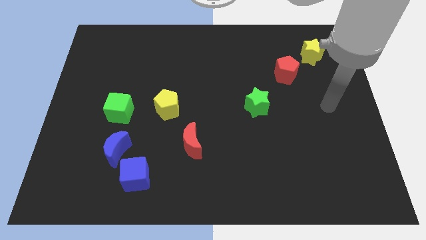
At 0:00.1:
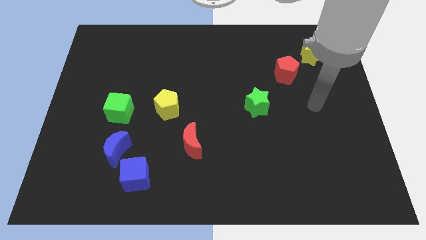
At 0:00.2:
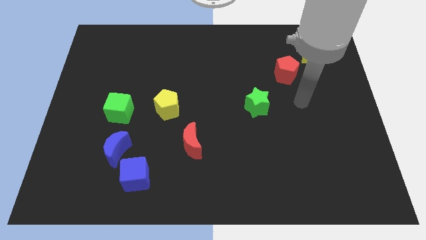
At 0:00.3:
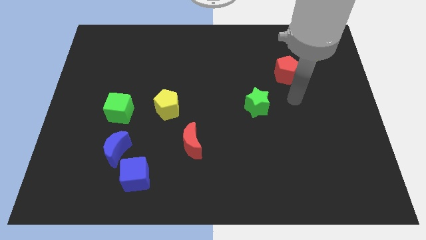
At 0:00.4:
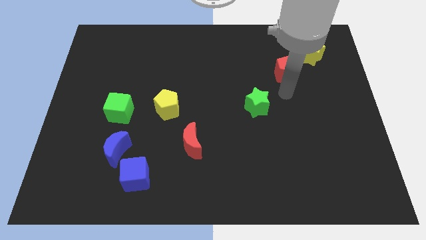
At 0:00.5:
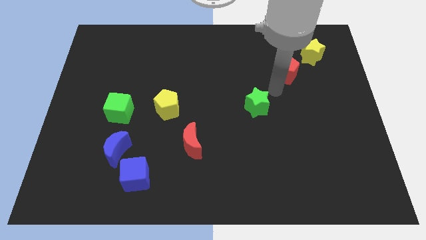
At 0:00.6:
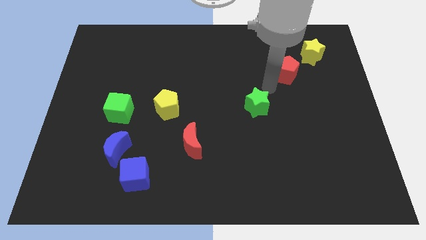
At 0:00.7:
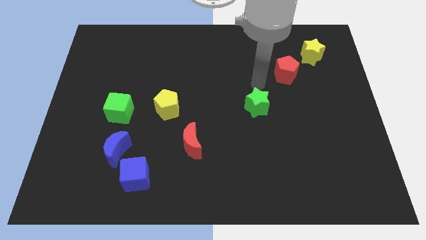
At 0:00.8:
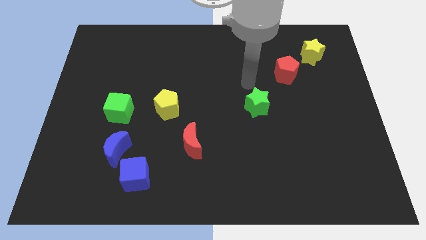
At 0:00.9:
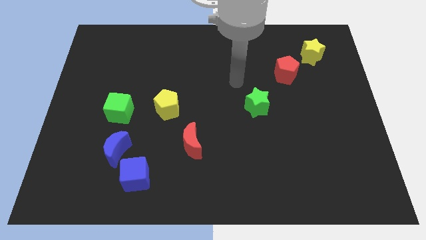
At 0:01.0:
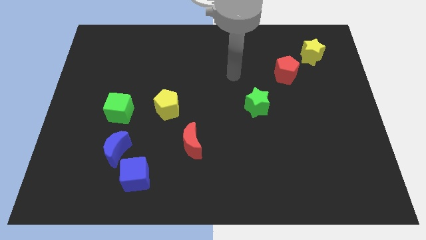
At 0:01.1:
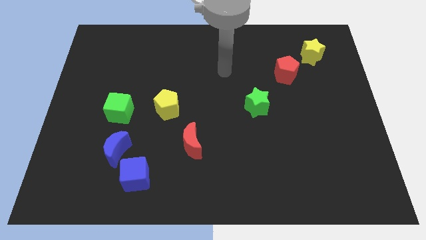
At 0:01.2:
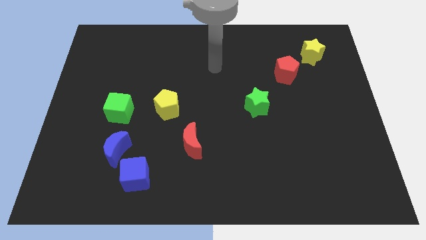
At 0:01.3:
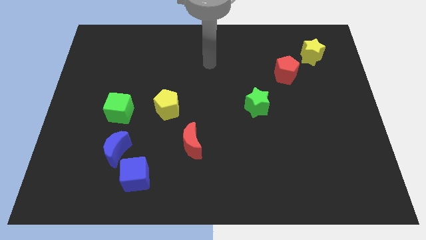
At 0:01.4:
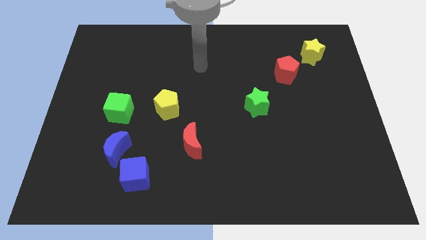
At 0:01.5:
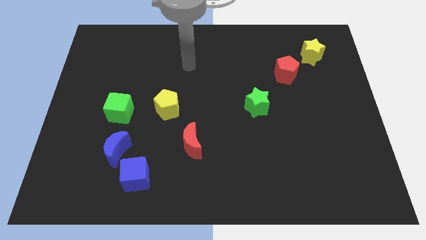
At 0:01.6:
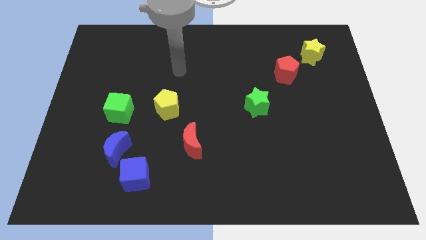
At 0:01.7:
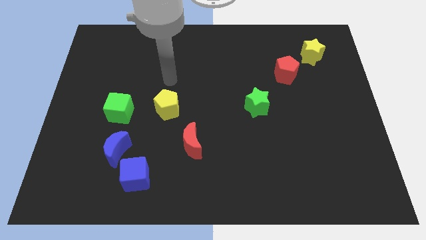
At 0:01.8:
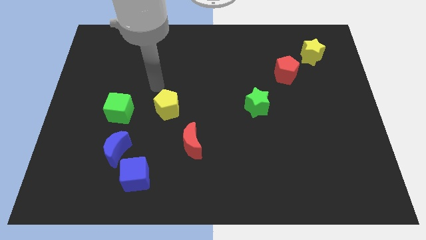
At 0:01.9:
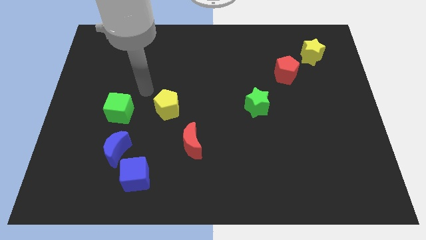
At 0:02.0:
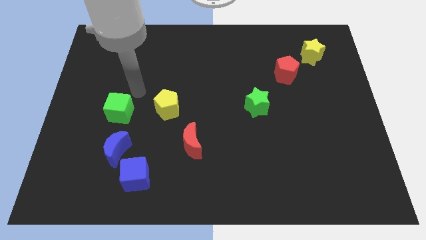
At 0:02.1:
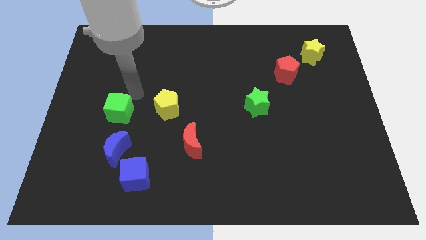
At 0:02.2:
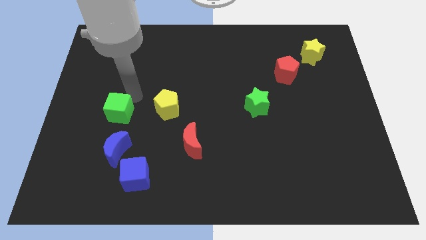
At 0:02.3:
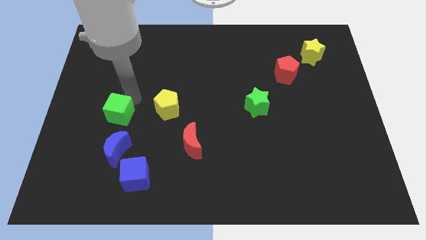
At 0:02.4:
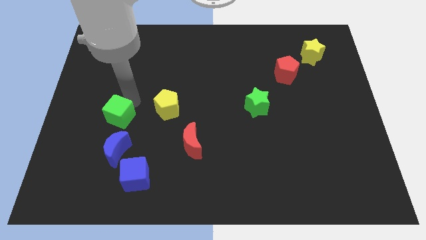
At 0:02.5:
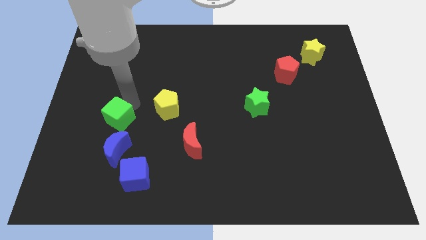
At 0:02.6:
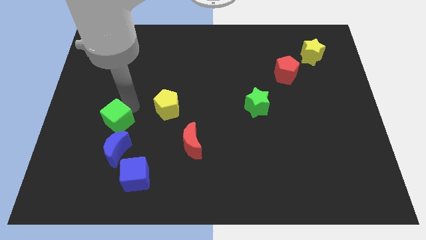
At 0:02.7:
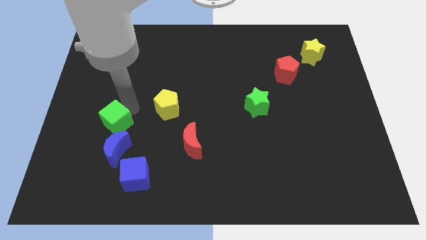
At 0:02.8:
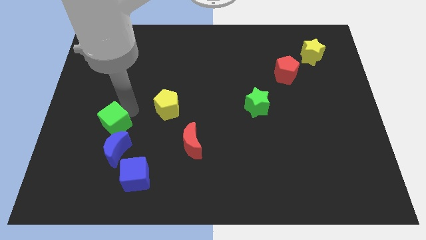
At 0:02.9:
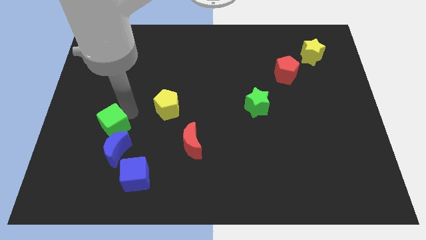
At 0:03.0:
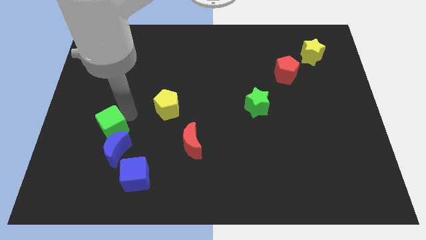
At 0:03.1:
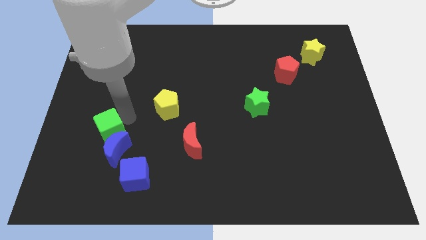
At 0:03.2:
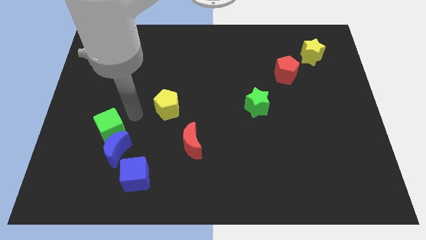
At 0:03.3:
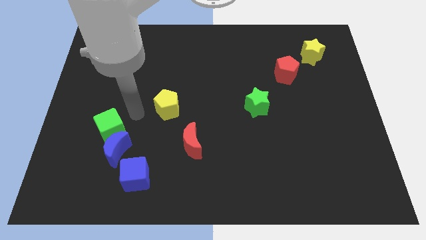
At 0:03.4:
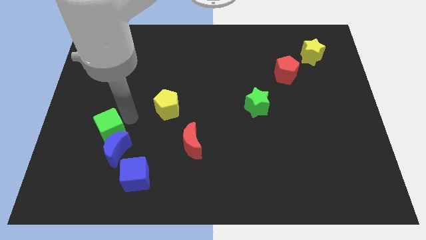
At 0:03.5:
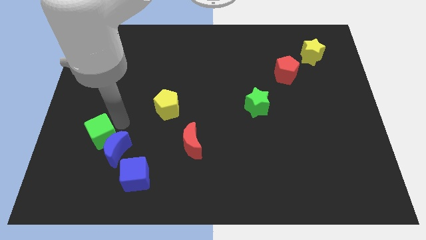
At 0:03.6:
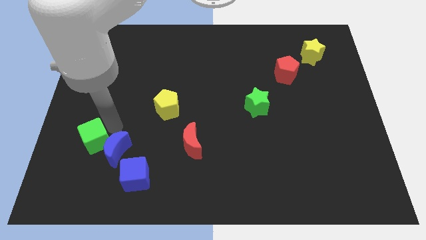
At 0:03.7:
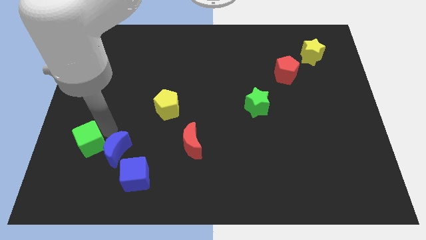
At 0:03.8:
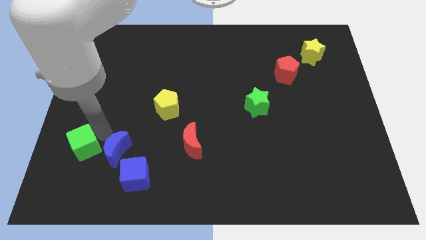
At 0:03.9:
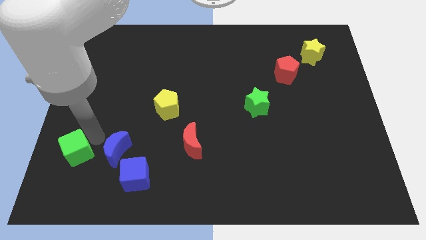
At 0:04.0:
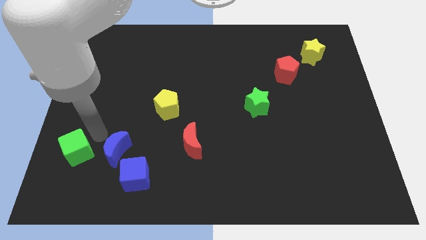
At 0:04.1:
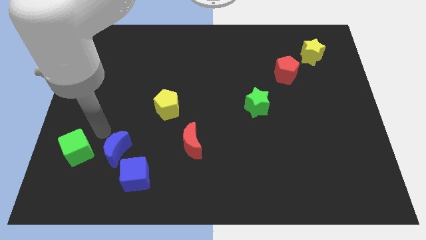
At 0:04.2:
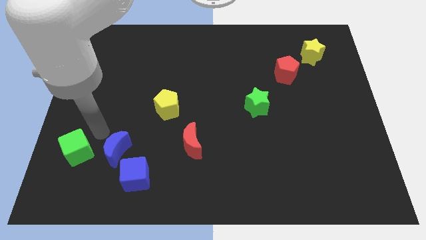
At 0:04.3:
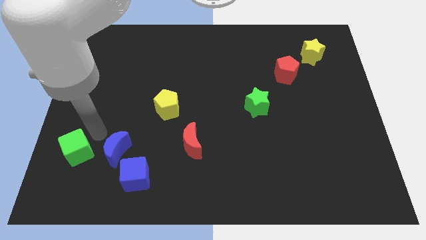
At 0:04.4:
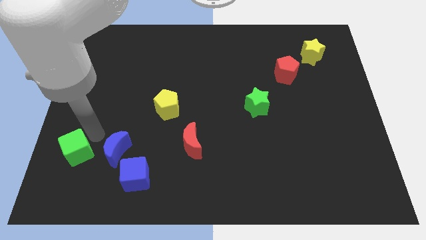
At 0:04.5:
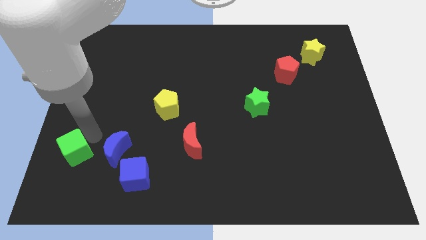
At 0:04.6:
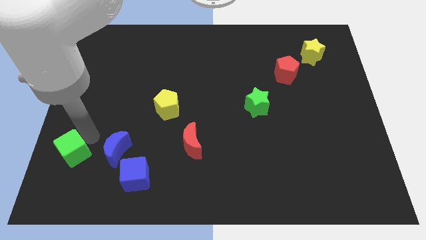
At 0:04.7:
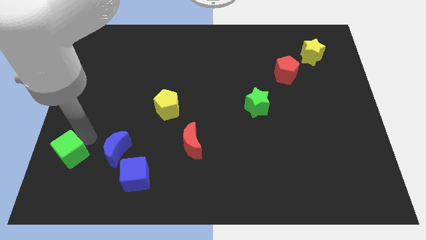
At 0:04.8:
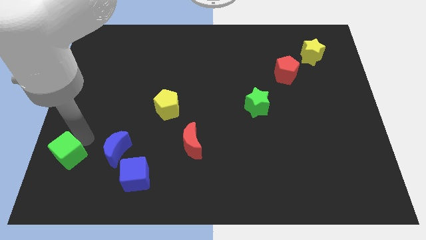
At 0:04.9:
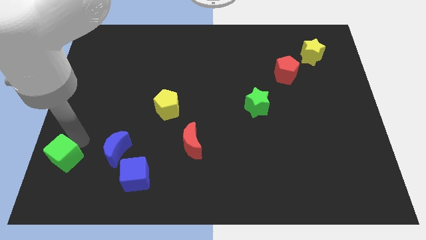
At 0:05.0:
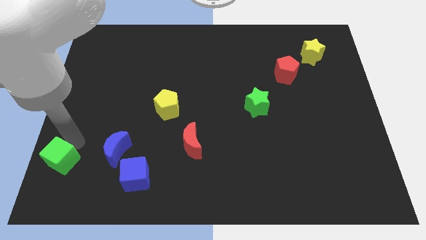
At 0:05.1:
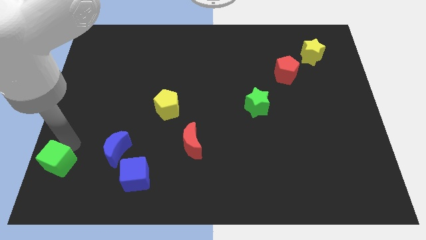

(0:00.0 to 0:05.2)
slide the green cube to the bottom left corner

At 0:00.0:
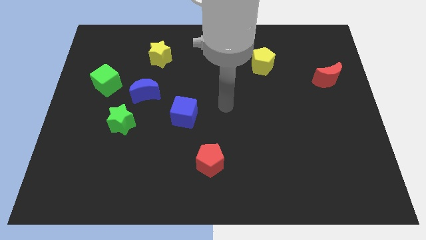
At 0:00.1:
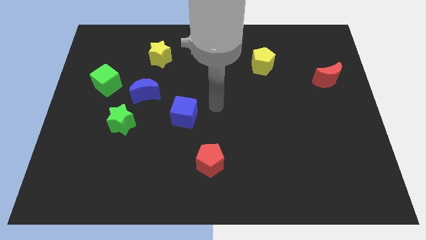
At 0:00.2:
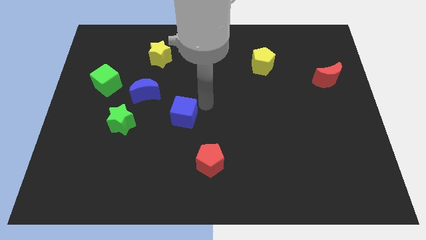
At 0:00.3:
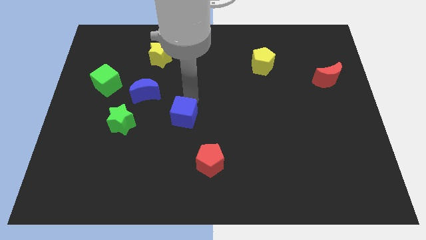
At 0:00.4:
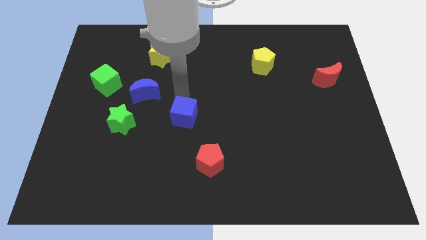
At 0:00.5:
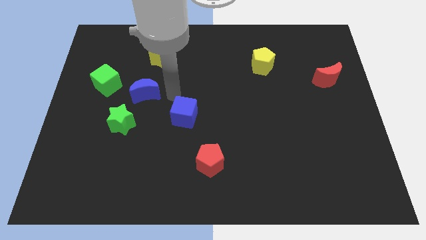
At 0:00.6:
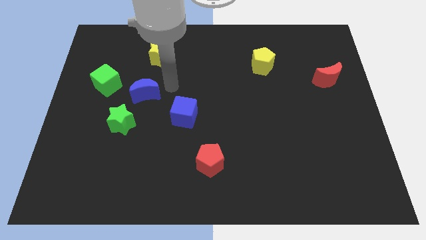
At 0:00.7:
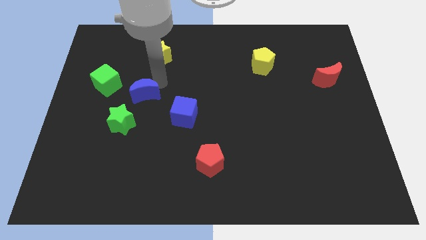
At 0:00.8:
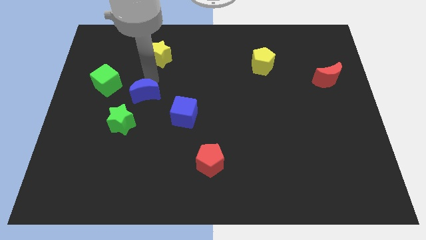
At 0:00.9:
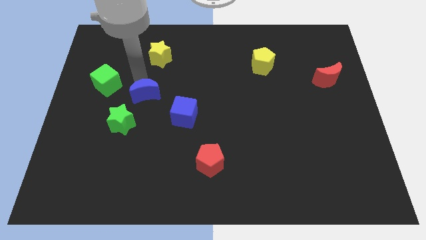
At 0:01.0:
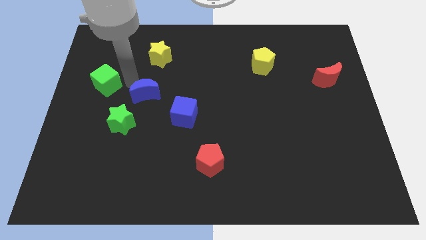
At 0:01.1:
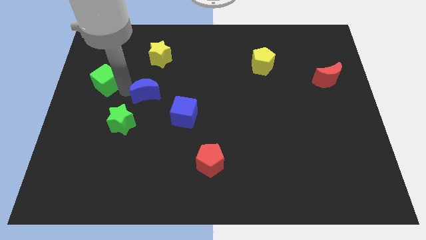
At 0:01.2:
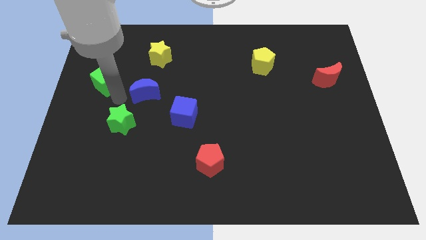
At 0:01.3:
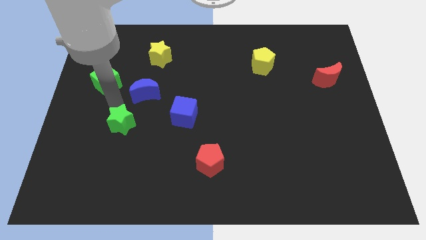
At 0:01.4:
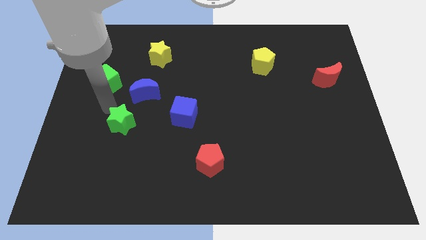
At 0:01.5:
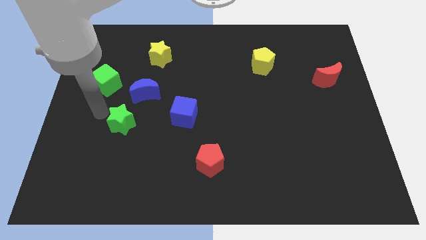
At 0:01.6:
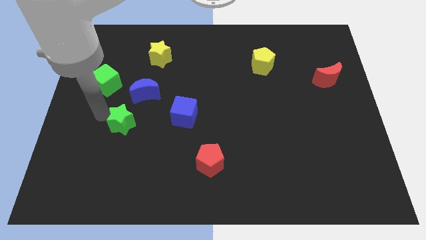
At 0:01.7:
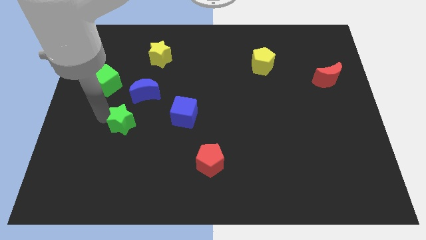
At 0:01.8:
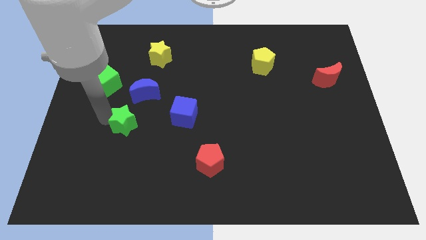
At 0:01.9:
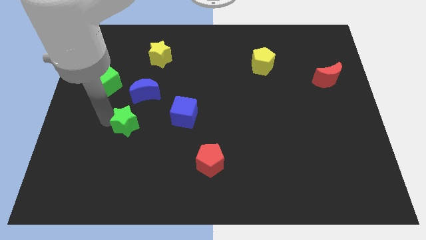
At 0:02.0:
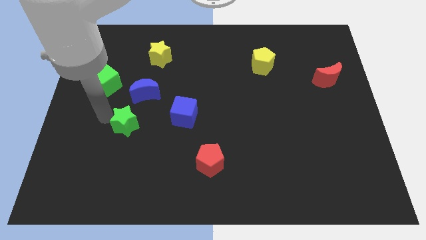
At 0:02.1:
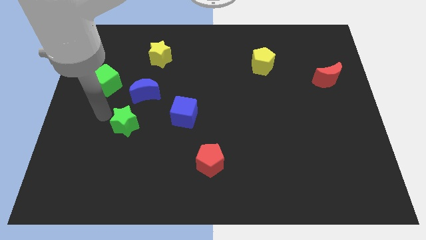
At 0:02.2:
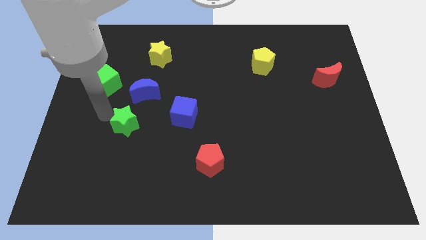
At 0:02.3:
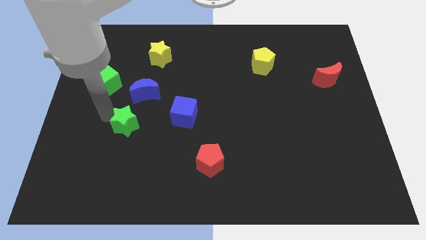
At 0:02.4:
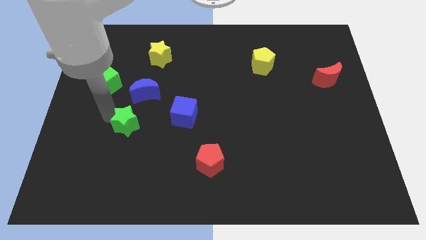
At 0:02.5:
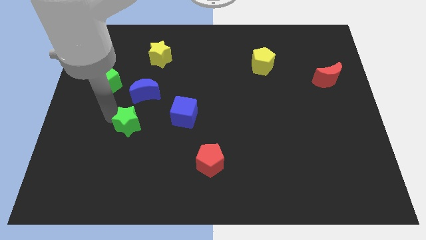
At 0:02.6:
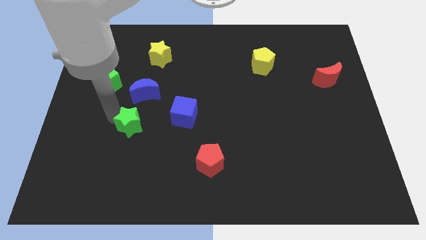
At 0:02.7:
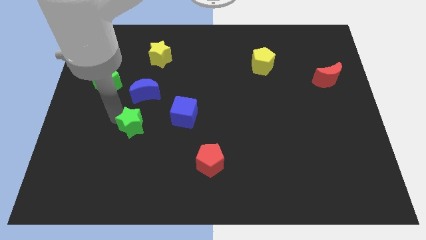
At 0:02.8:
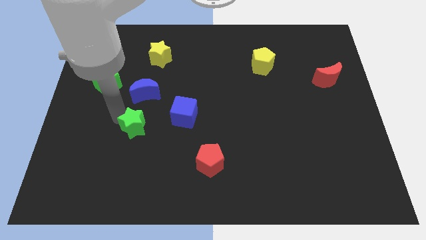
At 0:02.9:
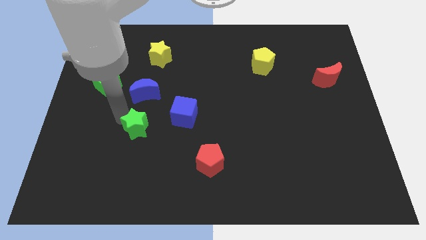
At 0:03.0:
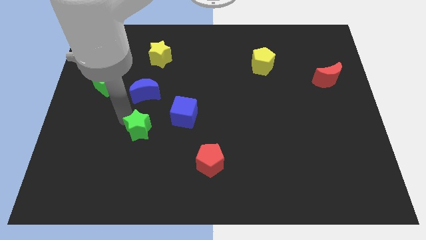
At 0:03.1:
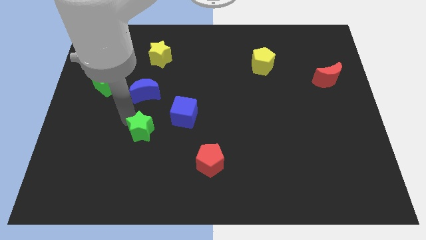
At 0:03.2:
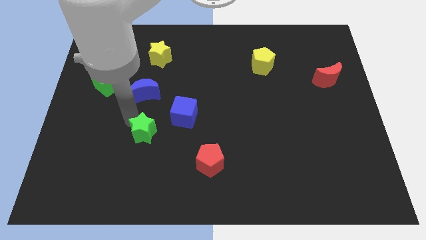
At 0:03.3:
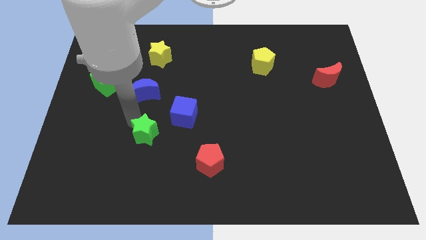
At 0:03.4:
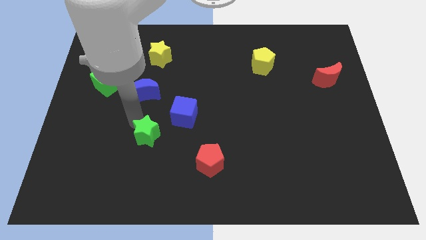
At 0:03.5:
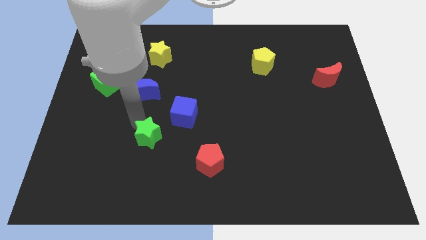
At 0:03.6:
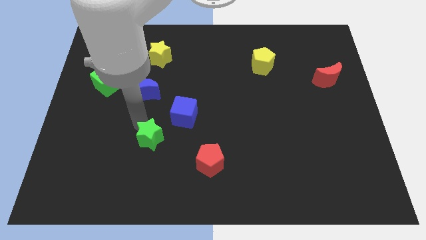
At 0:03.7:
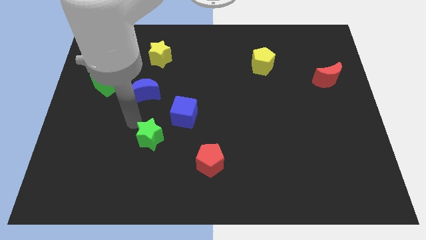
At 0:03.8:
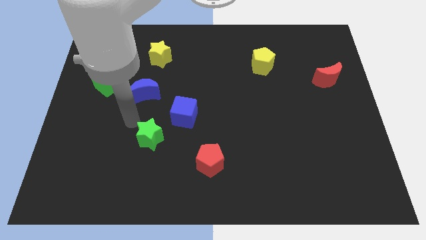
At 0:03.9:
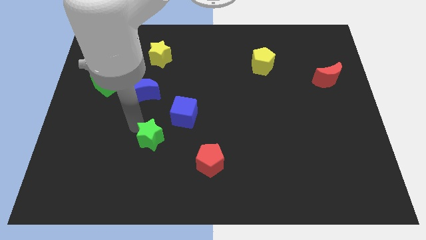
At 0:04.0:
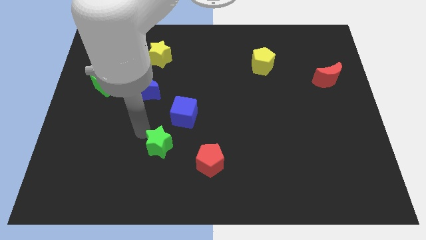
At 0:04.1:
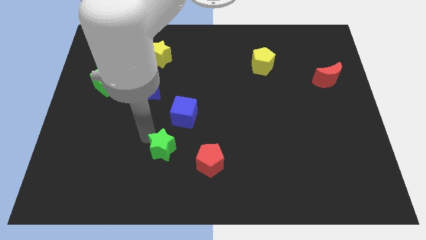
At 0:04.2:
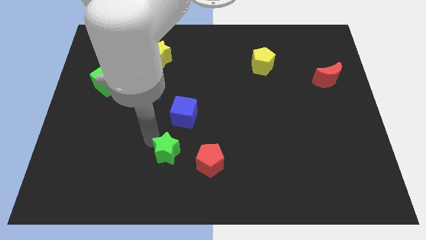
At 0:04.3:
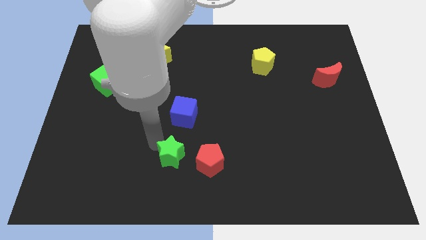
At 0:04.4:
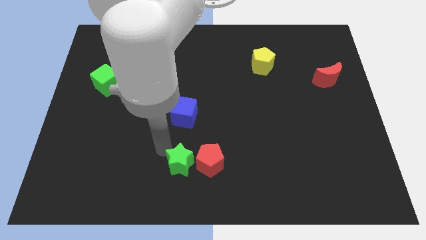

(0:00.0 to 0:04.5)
move the green star to the bottom side
